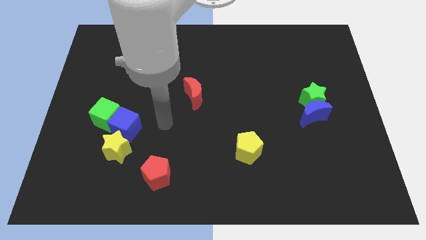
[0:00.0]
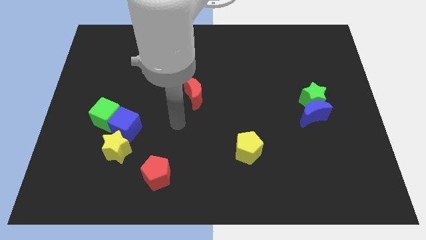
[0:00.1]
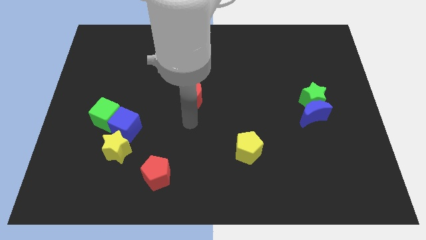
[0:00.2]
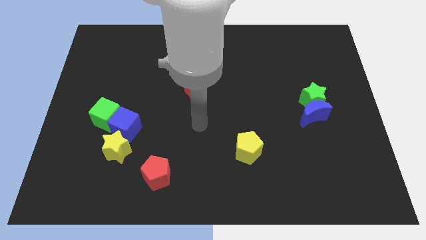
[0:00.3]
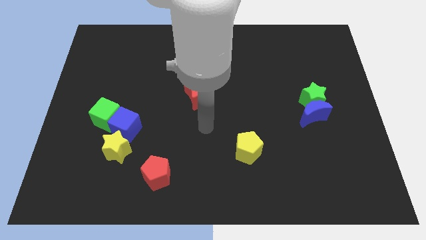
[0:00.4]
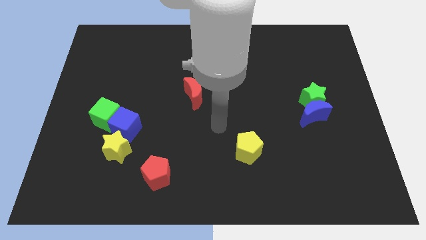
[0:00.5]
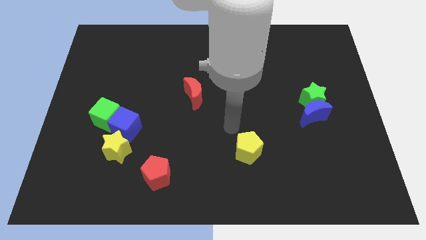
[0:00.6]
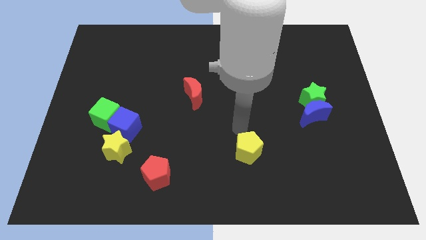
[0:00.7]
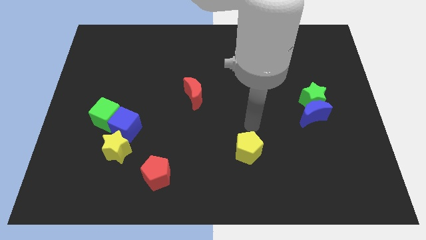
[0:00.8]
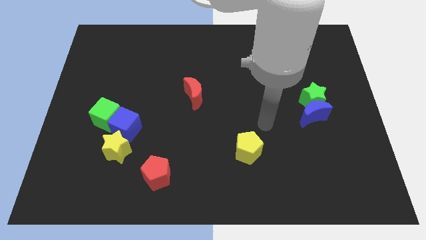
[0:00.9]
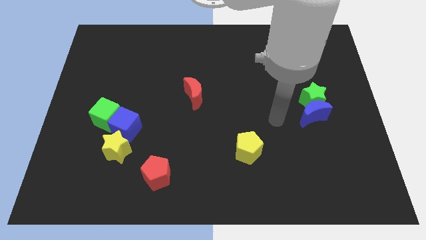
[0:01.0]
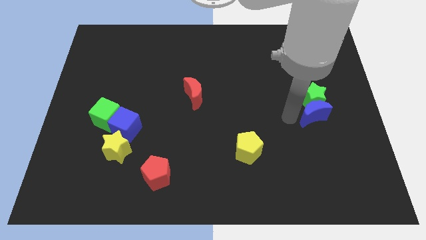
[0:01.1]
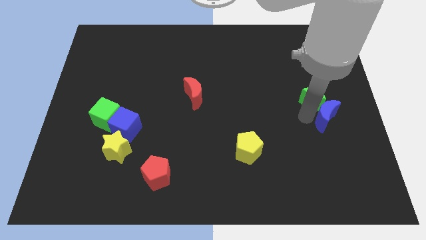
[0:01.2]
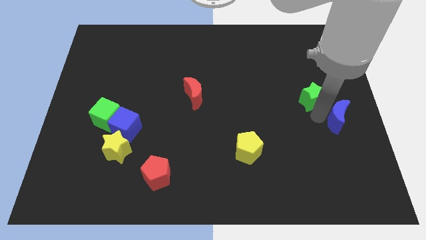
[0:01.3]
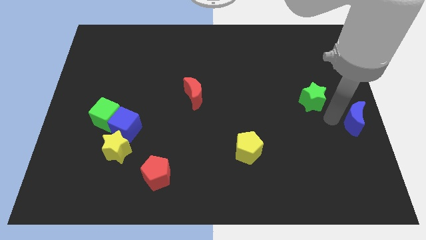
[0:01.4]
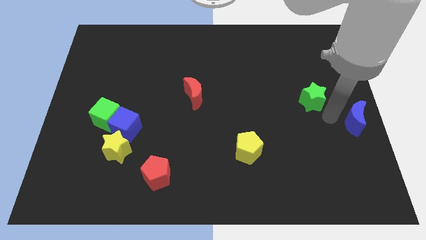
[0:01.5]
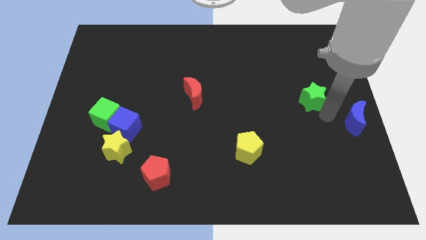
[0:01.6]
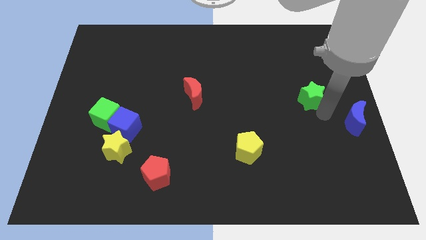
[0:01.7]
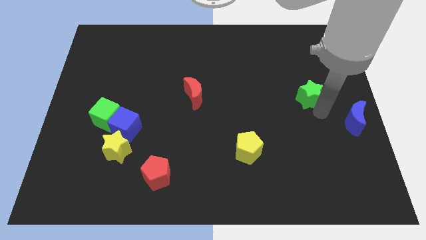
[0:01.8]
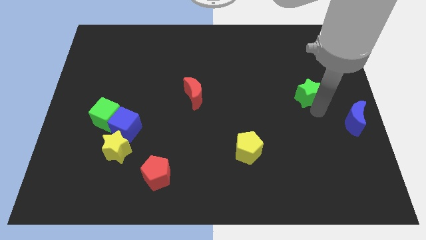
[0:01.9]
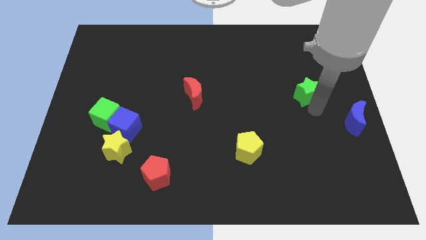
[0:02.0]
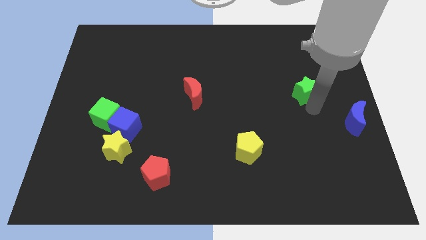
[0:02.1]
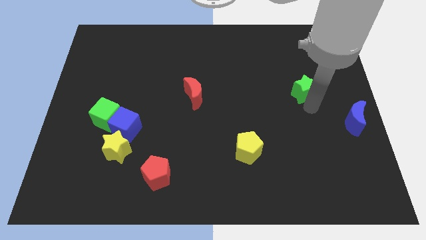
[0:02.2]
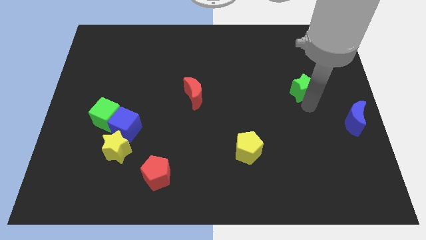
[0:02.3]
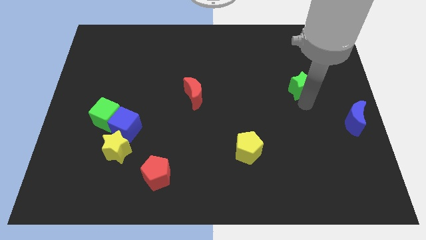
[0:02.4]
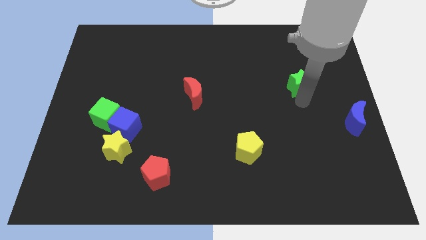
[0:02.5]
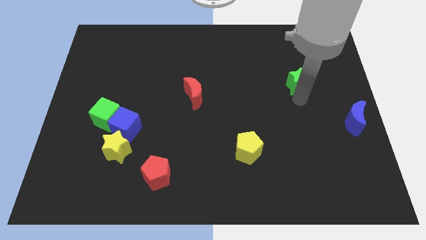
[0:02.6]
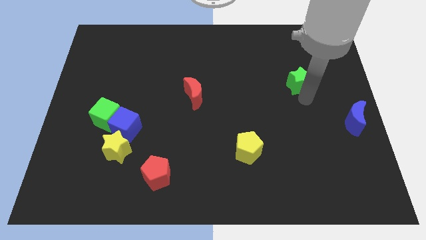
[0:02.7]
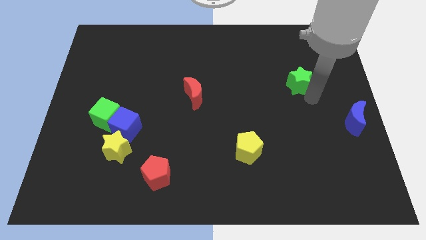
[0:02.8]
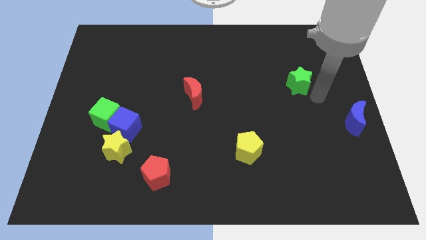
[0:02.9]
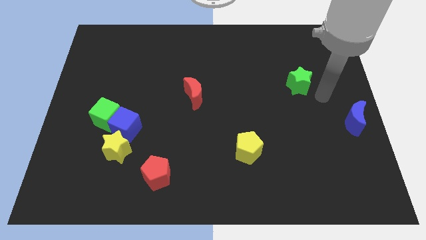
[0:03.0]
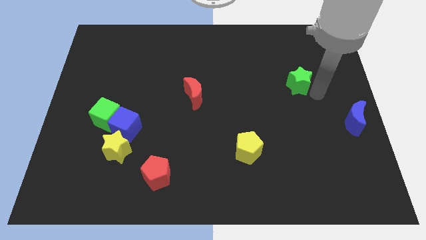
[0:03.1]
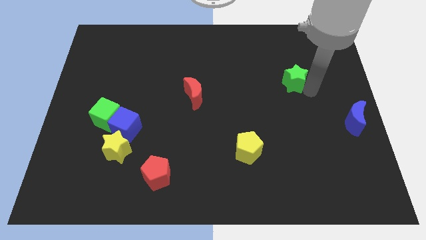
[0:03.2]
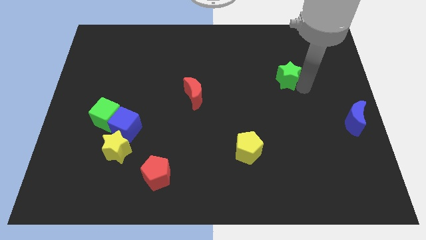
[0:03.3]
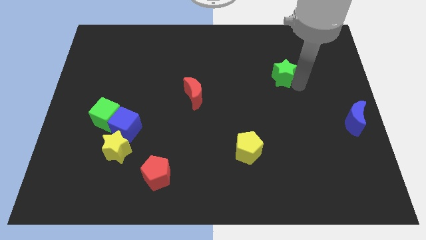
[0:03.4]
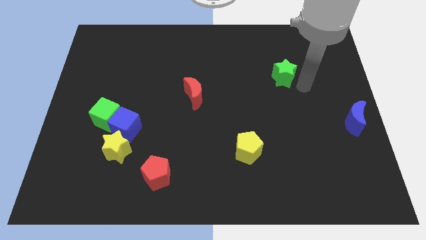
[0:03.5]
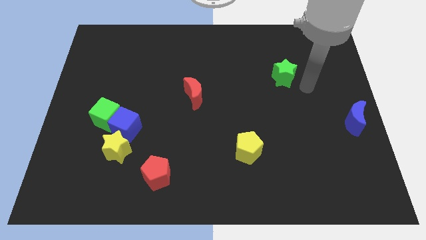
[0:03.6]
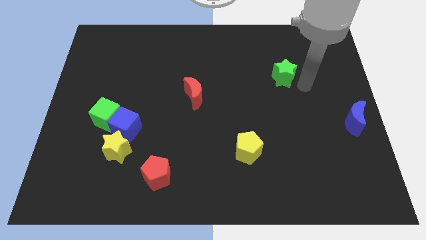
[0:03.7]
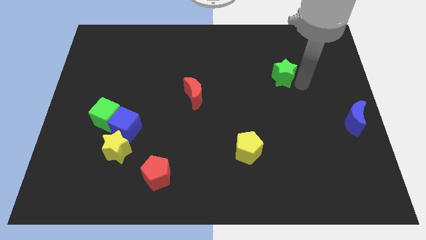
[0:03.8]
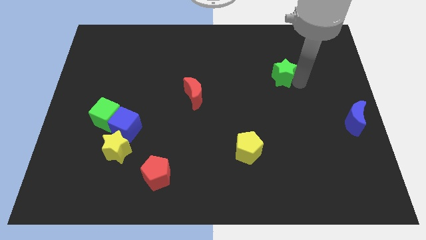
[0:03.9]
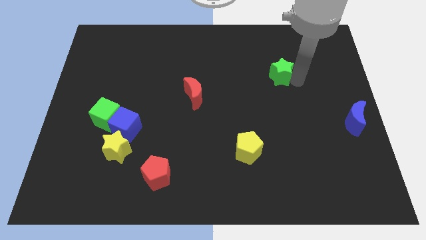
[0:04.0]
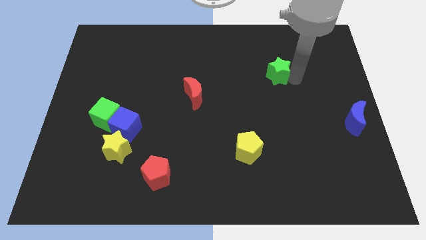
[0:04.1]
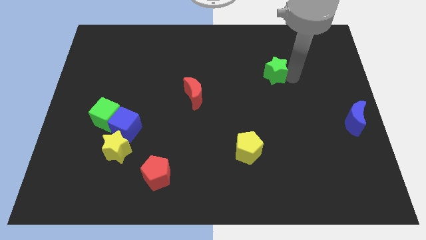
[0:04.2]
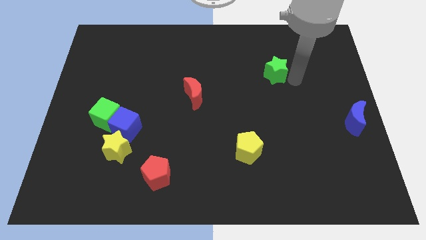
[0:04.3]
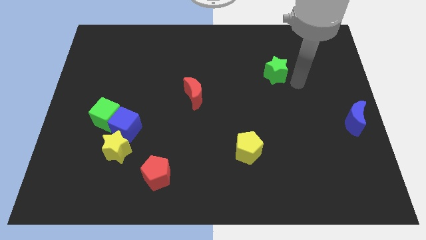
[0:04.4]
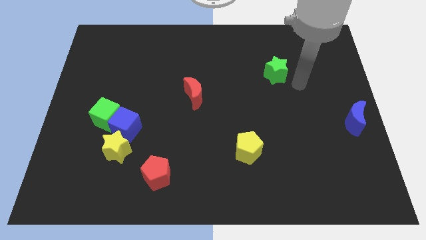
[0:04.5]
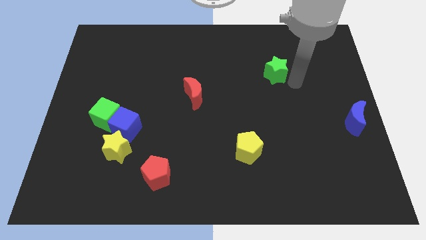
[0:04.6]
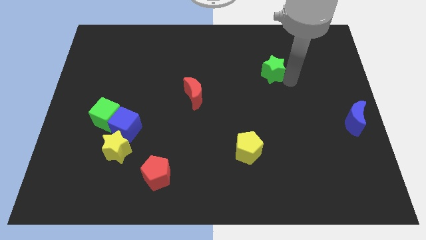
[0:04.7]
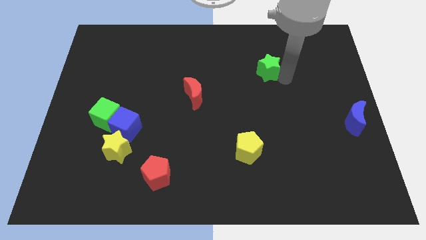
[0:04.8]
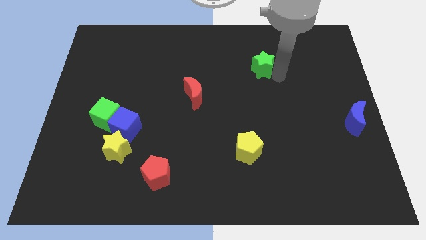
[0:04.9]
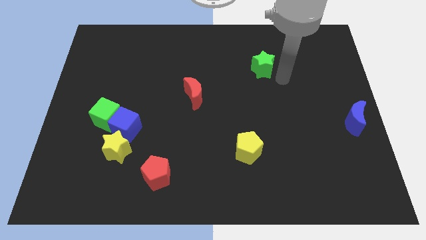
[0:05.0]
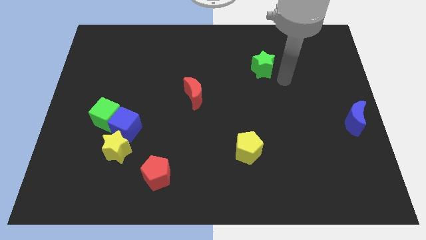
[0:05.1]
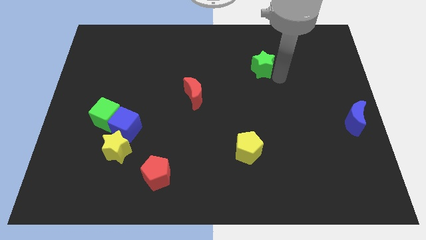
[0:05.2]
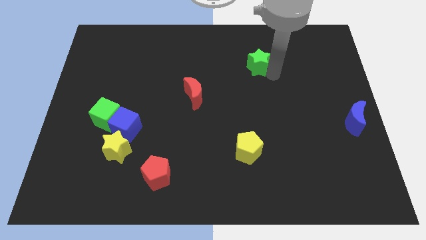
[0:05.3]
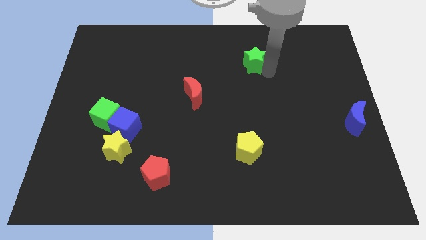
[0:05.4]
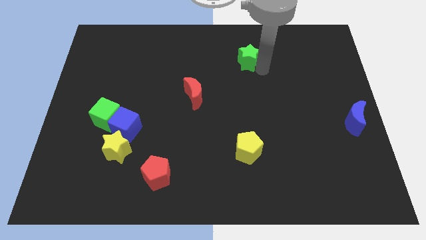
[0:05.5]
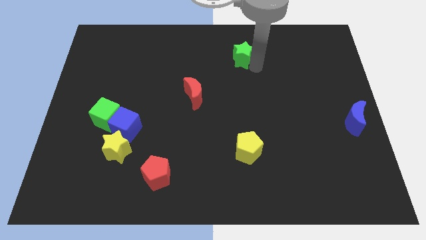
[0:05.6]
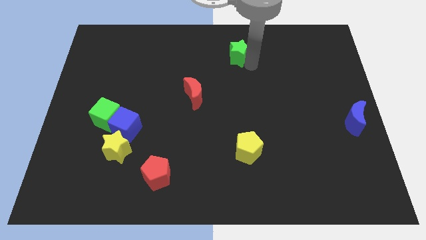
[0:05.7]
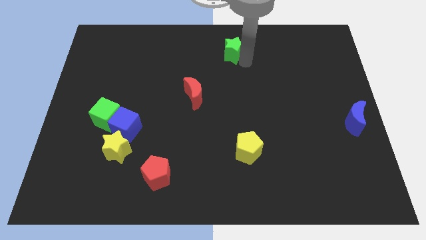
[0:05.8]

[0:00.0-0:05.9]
move the green star to the towards your base

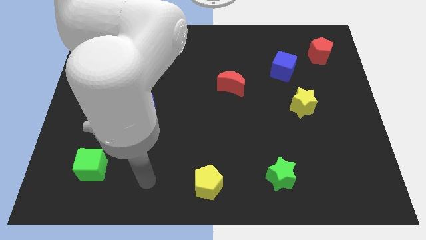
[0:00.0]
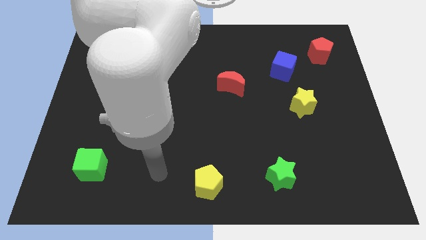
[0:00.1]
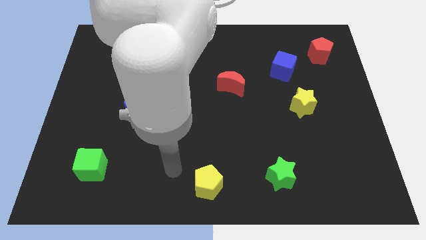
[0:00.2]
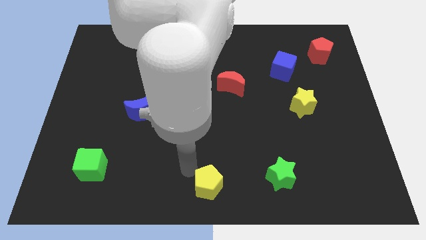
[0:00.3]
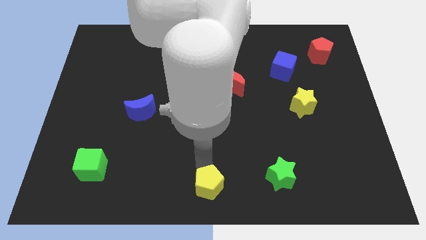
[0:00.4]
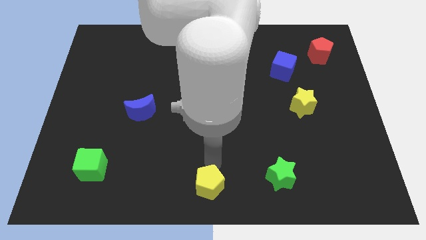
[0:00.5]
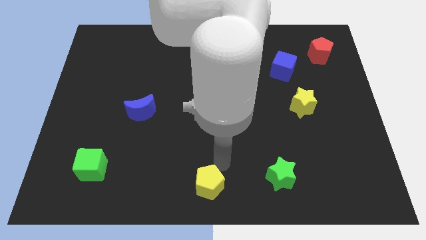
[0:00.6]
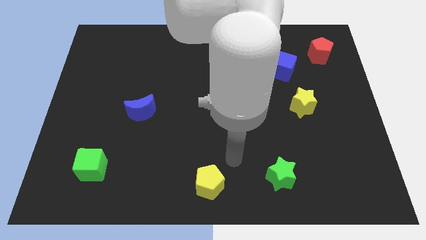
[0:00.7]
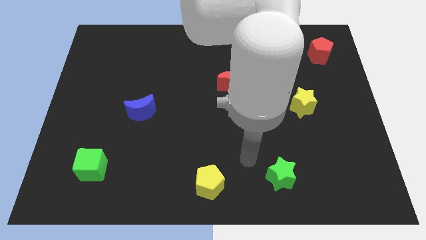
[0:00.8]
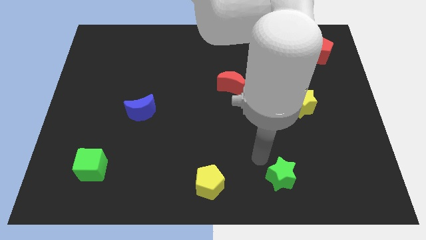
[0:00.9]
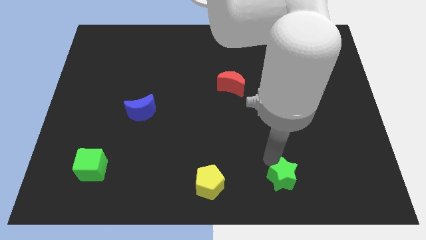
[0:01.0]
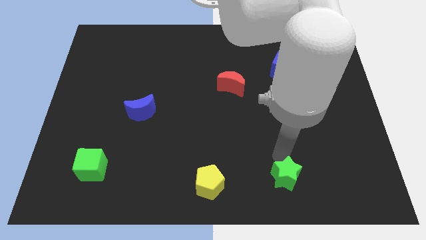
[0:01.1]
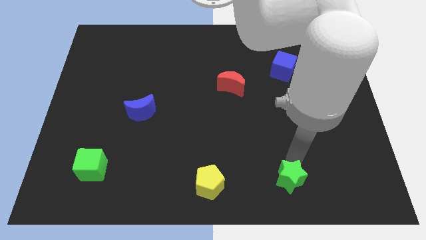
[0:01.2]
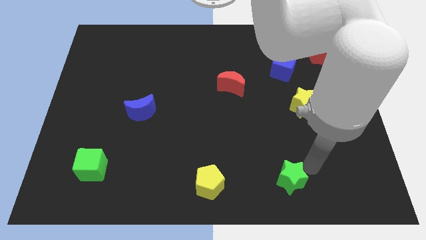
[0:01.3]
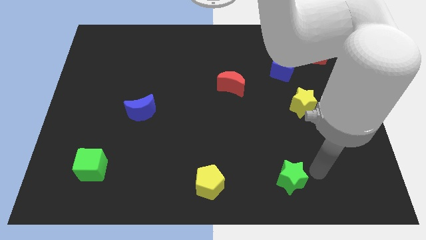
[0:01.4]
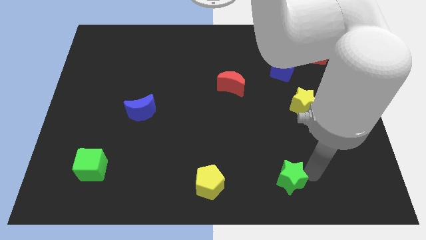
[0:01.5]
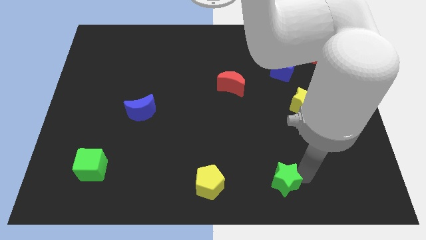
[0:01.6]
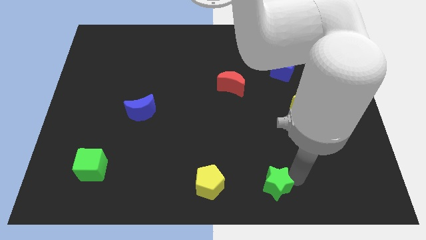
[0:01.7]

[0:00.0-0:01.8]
push the green star to the bottom
